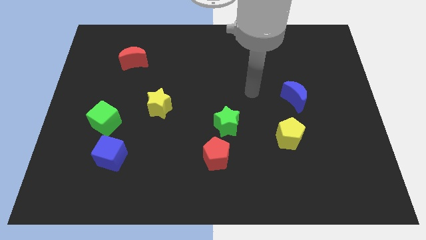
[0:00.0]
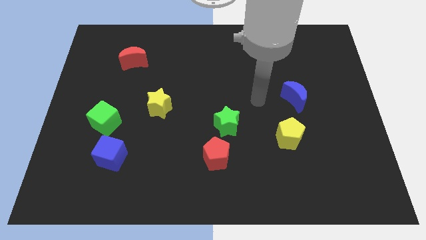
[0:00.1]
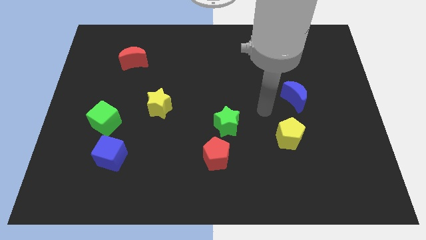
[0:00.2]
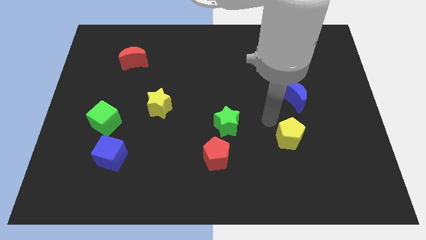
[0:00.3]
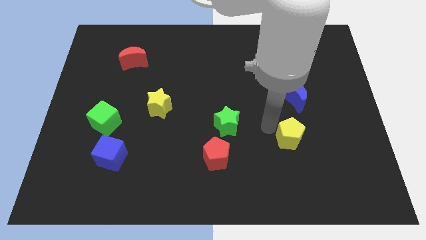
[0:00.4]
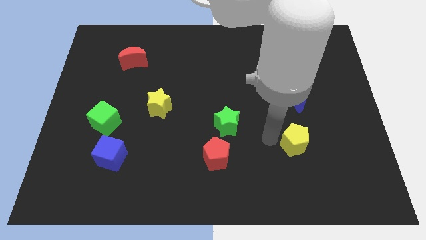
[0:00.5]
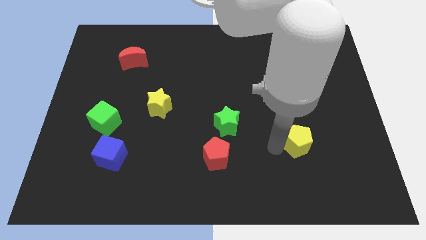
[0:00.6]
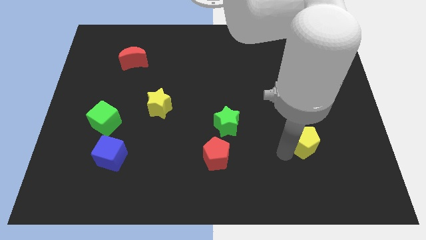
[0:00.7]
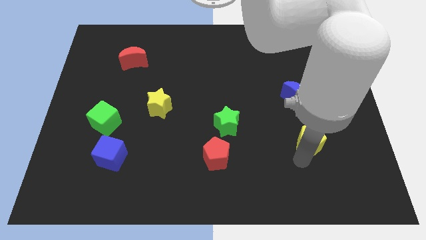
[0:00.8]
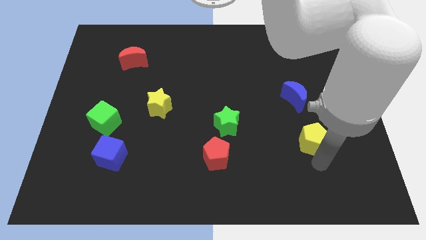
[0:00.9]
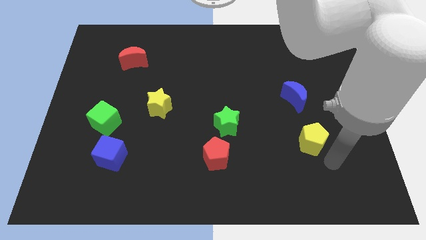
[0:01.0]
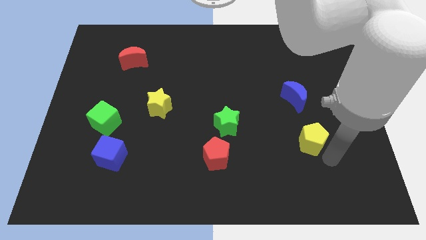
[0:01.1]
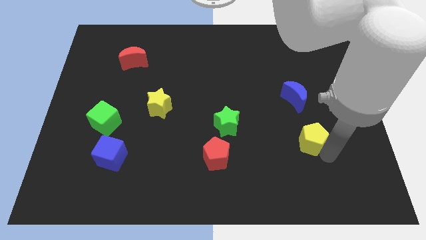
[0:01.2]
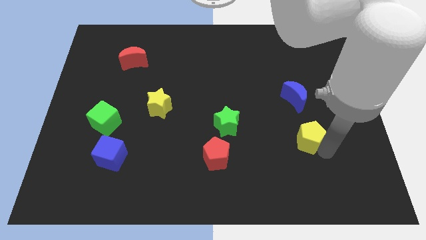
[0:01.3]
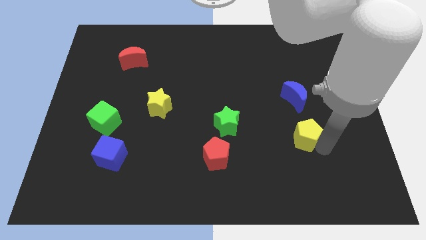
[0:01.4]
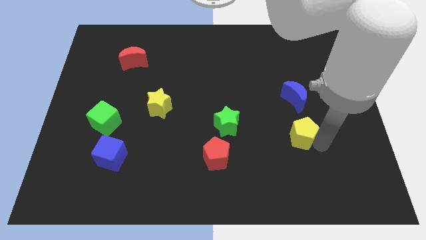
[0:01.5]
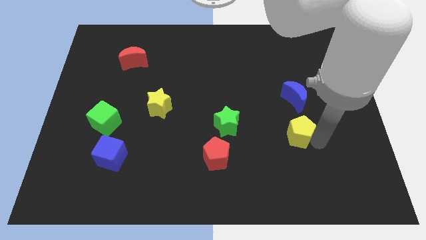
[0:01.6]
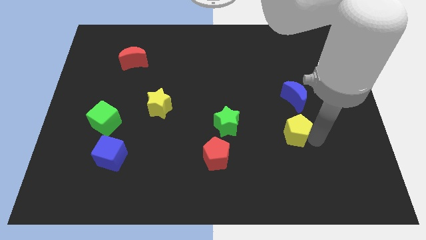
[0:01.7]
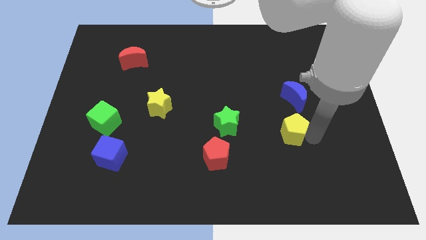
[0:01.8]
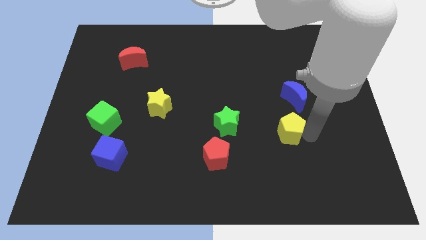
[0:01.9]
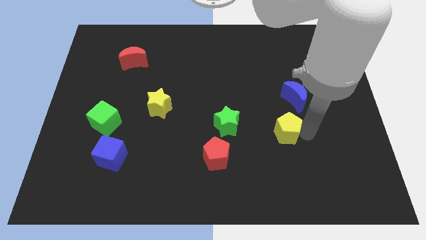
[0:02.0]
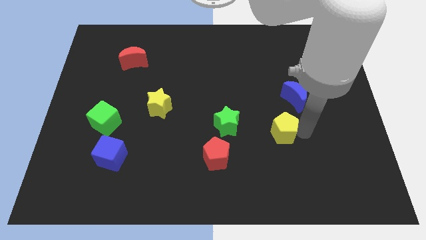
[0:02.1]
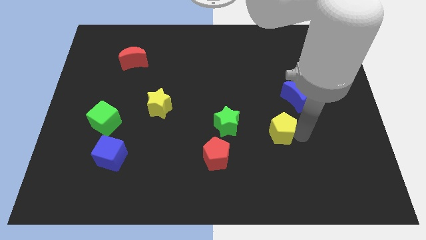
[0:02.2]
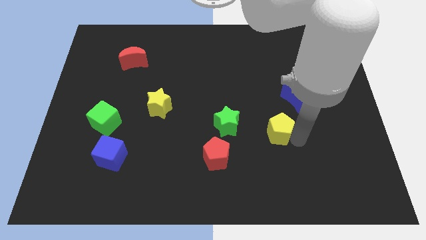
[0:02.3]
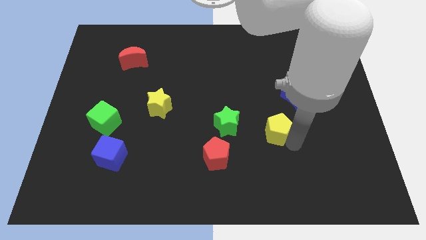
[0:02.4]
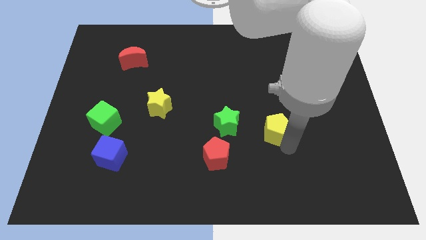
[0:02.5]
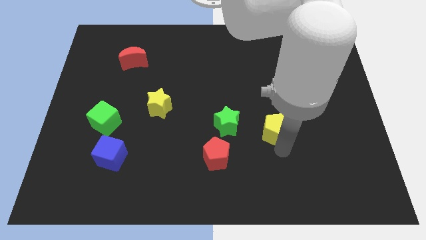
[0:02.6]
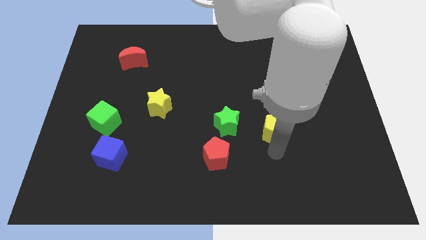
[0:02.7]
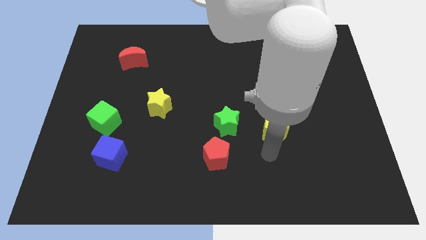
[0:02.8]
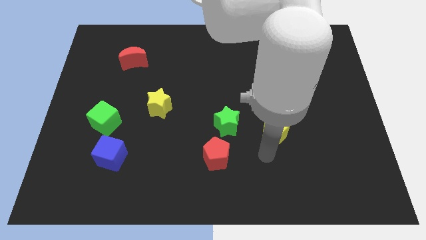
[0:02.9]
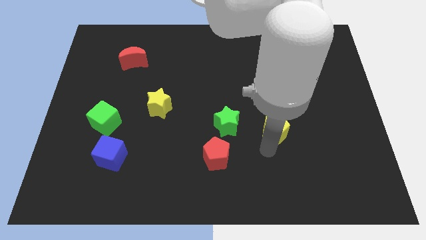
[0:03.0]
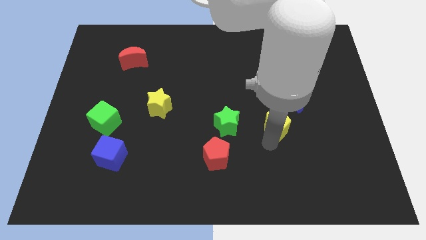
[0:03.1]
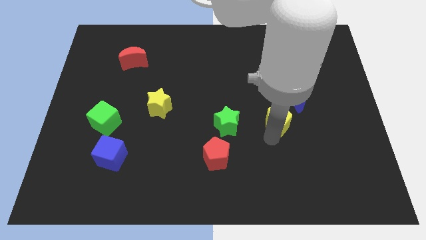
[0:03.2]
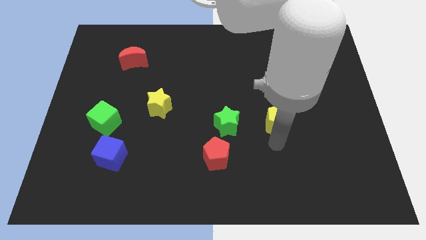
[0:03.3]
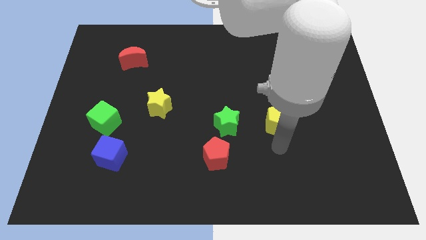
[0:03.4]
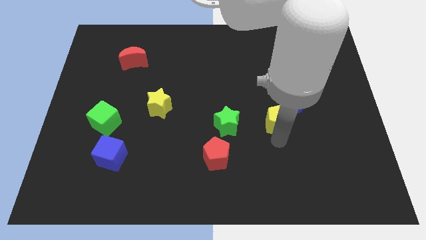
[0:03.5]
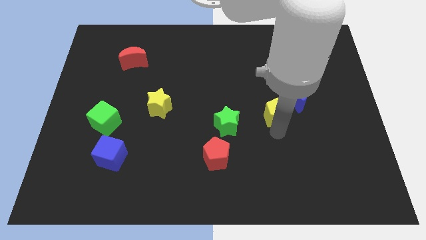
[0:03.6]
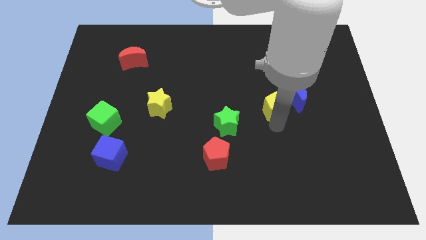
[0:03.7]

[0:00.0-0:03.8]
slightly slide the yellow pentagon up

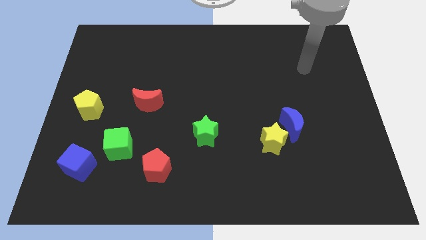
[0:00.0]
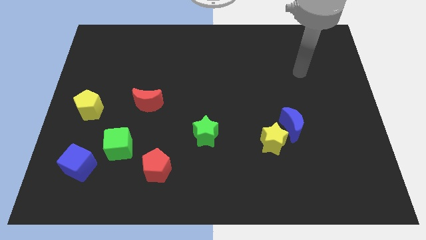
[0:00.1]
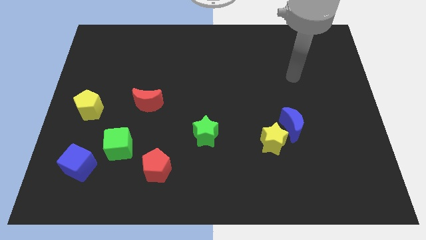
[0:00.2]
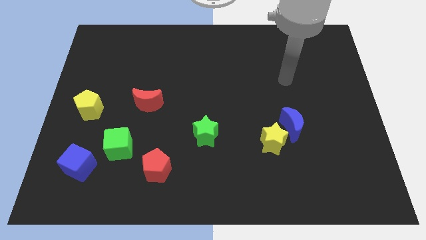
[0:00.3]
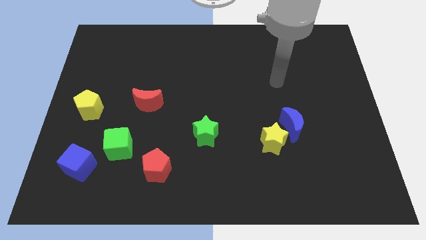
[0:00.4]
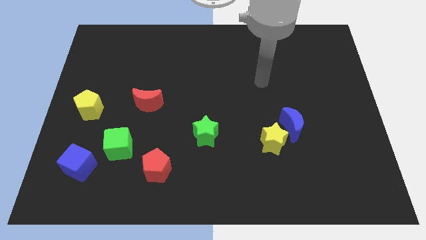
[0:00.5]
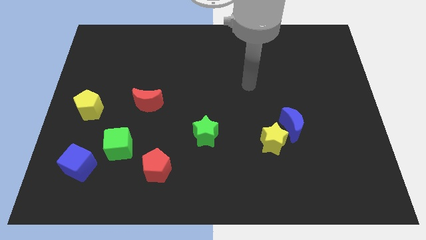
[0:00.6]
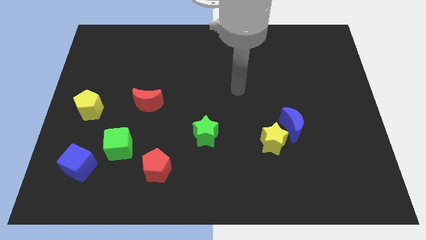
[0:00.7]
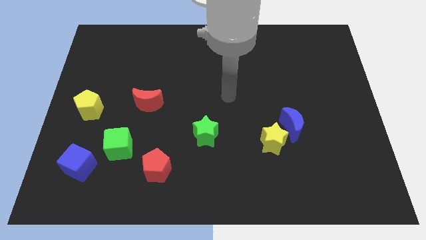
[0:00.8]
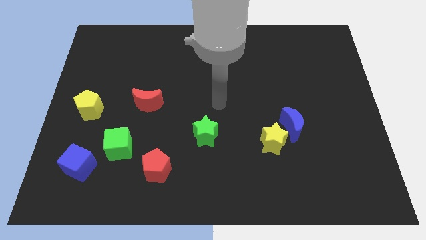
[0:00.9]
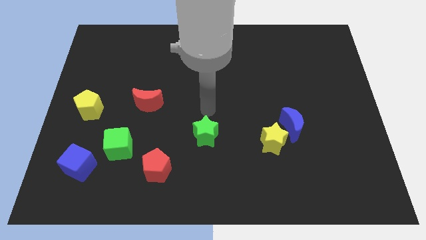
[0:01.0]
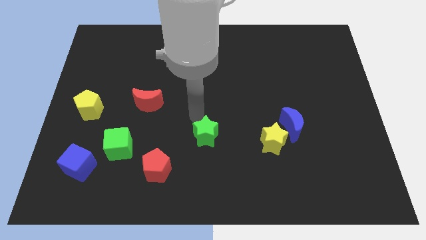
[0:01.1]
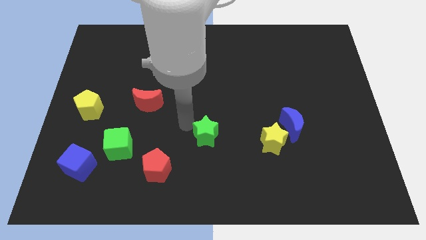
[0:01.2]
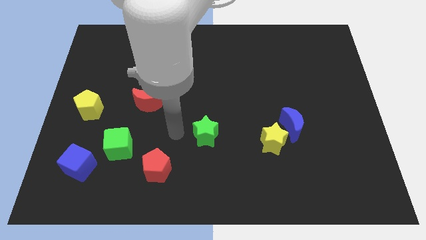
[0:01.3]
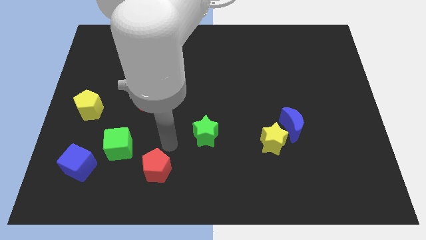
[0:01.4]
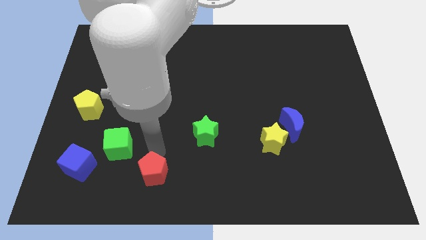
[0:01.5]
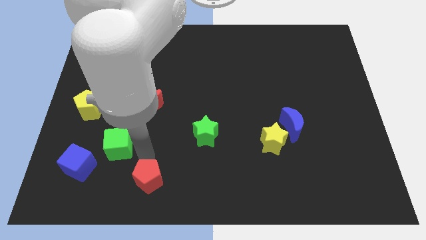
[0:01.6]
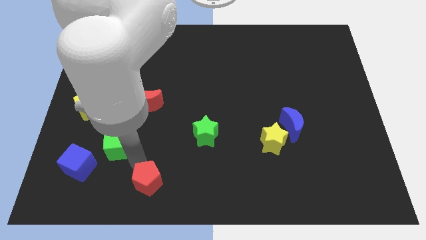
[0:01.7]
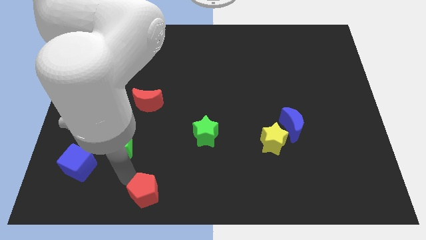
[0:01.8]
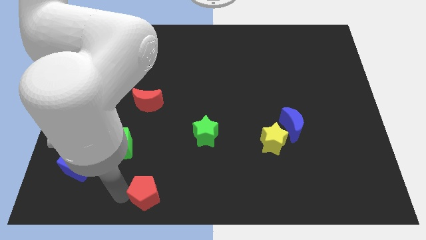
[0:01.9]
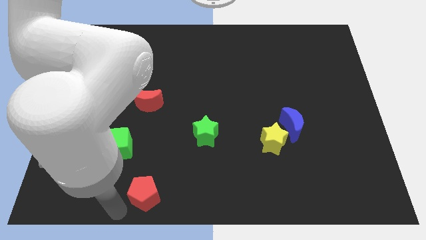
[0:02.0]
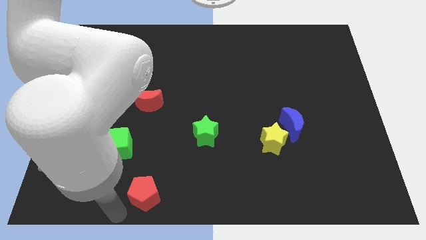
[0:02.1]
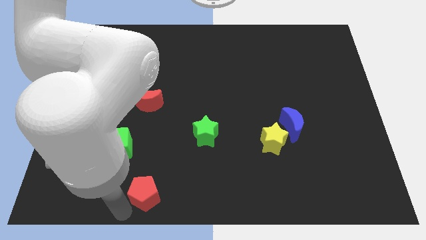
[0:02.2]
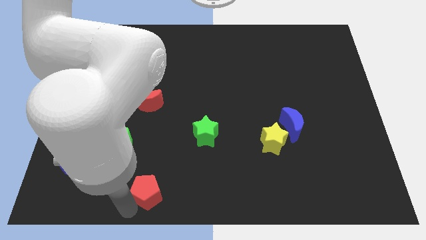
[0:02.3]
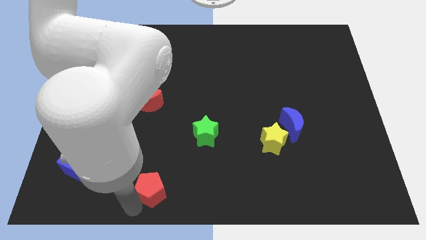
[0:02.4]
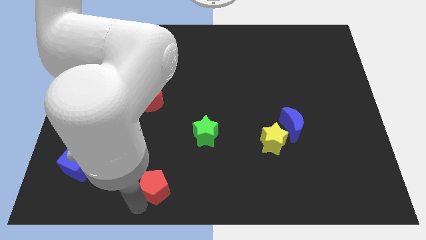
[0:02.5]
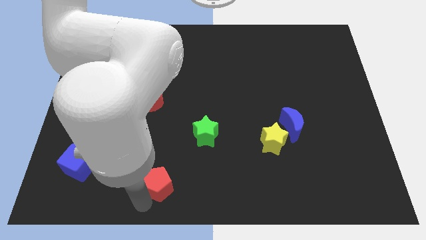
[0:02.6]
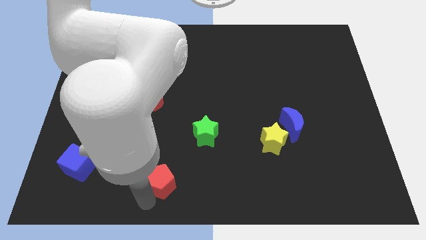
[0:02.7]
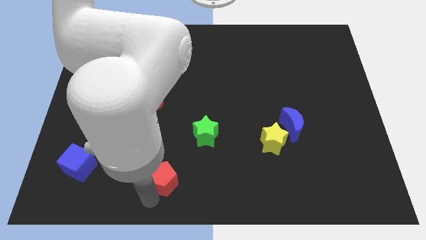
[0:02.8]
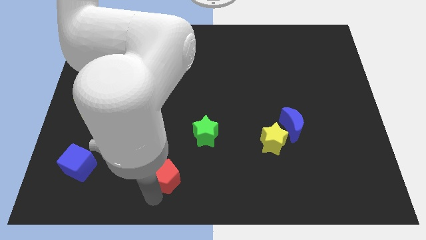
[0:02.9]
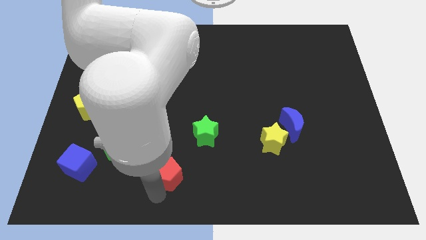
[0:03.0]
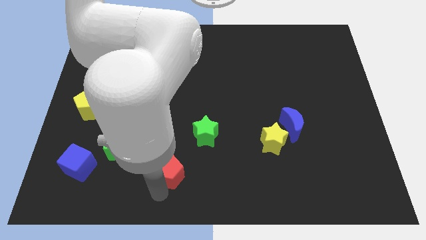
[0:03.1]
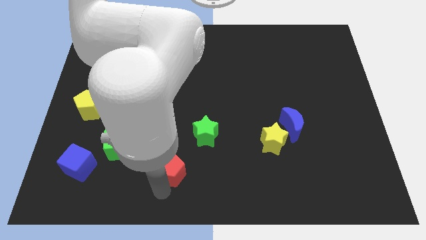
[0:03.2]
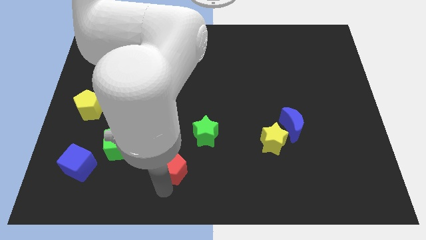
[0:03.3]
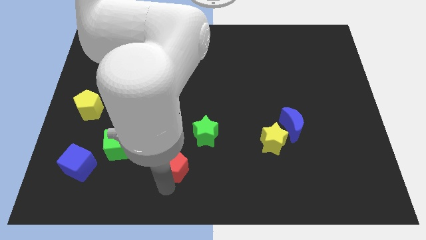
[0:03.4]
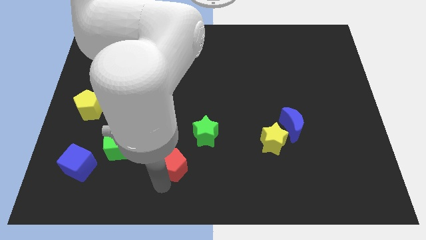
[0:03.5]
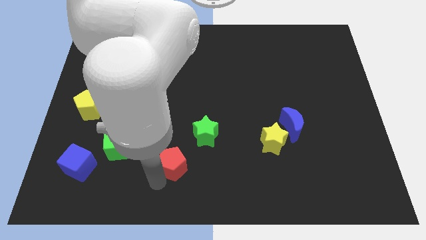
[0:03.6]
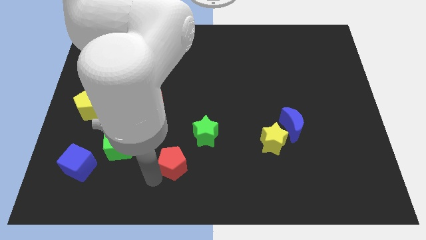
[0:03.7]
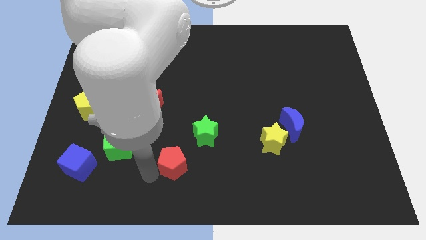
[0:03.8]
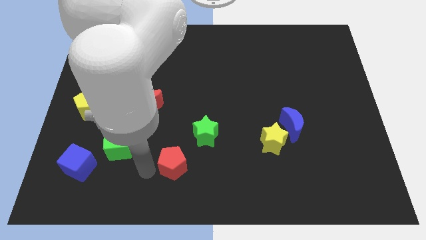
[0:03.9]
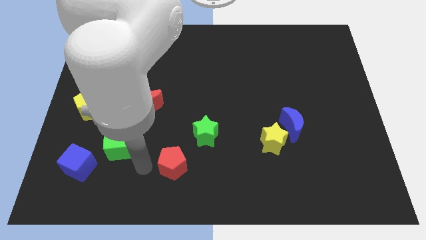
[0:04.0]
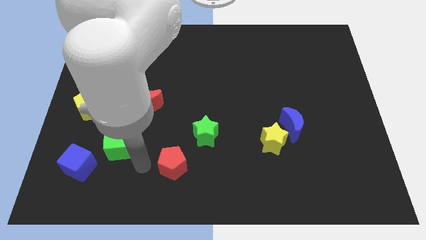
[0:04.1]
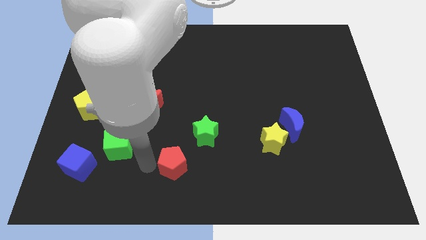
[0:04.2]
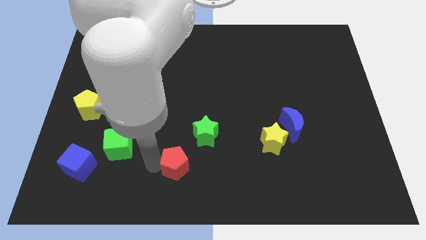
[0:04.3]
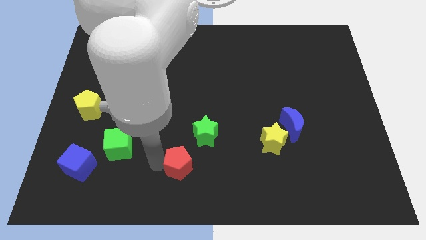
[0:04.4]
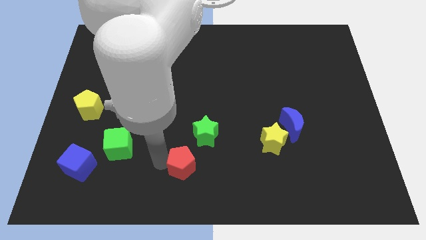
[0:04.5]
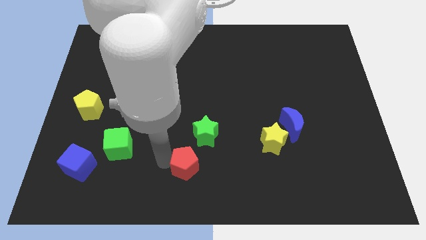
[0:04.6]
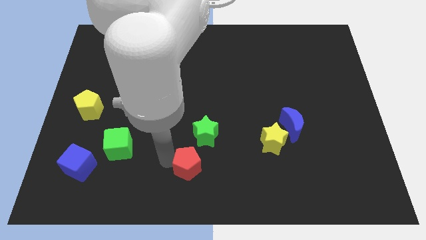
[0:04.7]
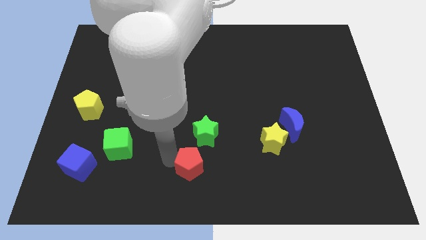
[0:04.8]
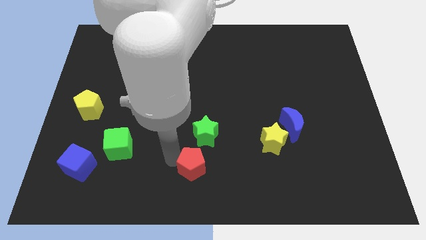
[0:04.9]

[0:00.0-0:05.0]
slide the red pentagon to the right a bit

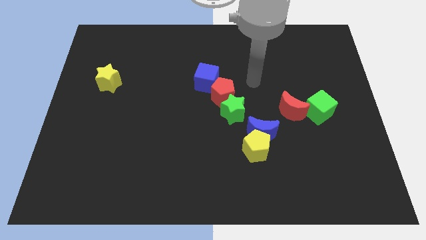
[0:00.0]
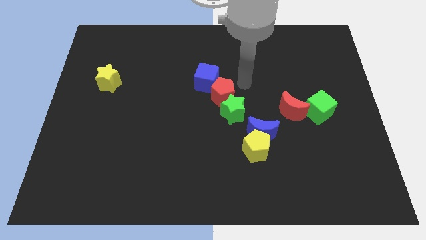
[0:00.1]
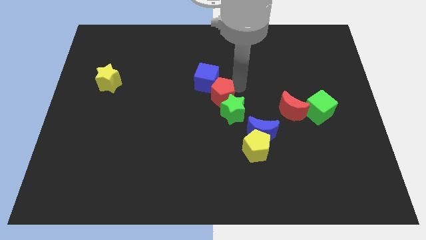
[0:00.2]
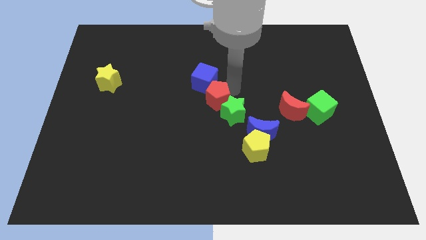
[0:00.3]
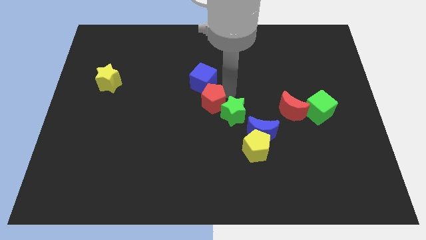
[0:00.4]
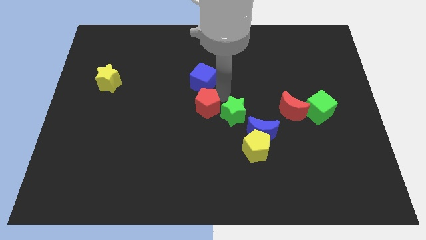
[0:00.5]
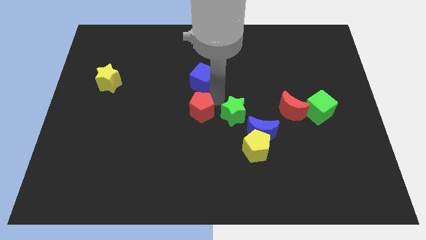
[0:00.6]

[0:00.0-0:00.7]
slightly move the red pentagon diagonally downwards and left
